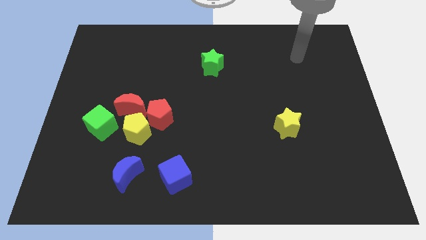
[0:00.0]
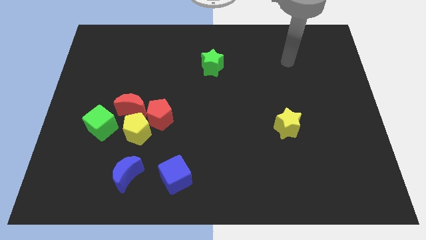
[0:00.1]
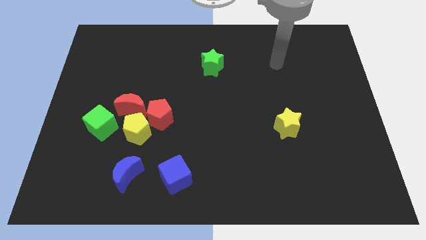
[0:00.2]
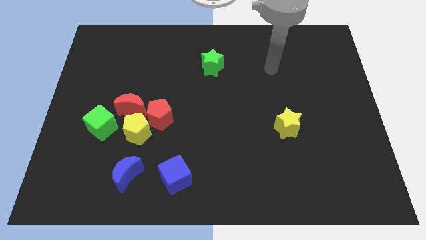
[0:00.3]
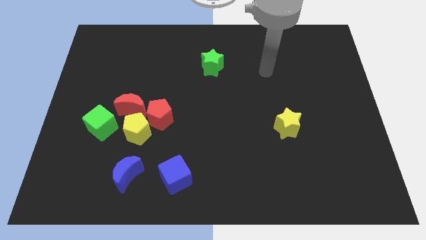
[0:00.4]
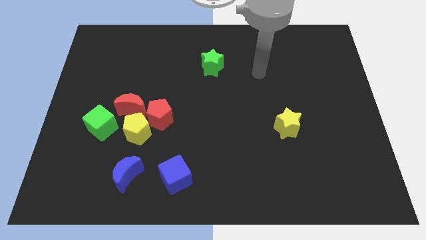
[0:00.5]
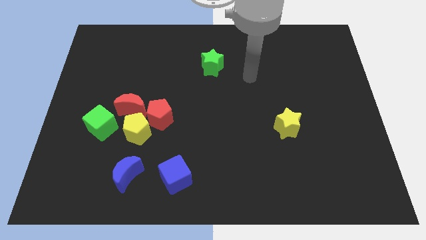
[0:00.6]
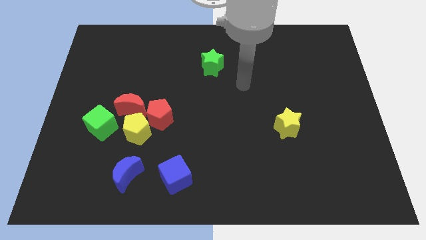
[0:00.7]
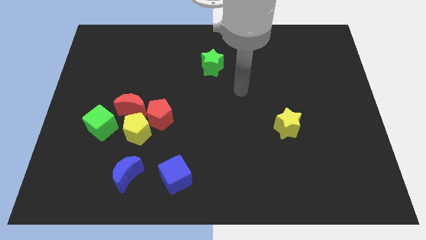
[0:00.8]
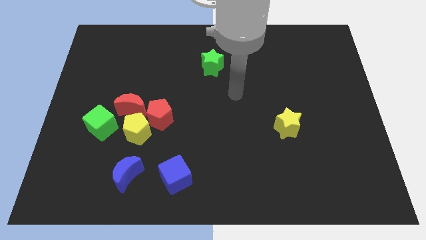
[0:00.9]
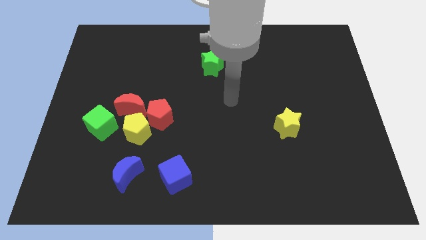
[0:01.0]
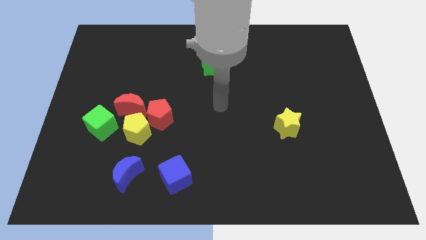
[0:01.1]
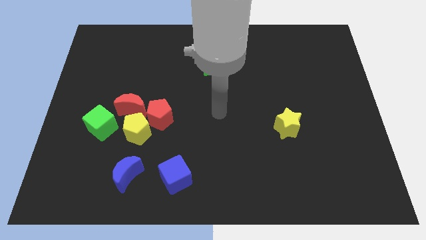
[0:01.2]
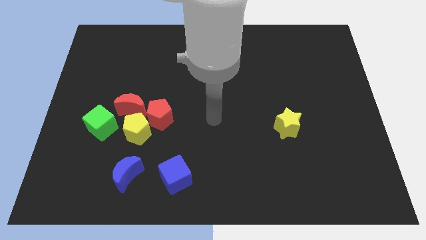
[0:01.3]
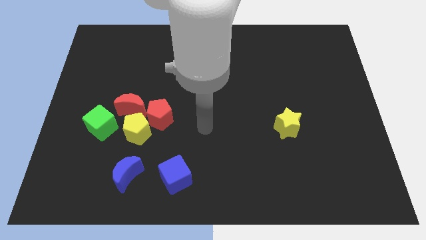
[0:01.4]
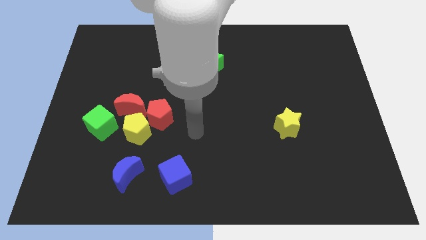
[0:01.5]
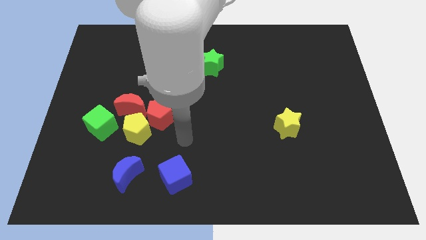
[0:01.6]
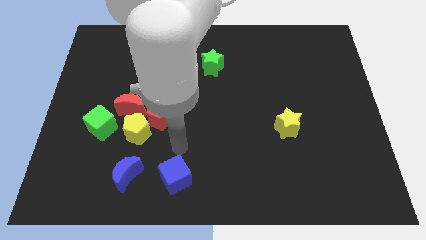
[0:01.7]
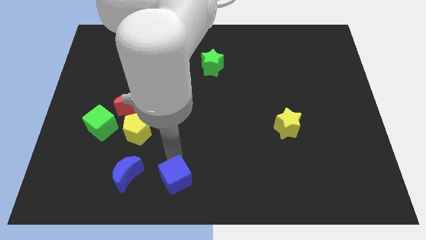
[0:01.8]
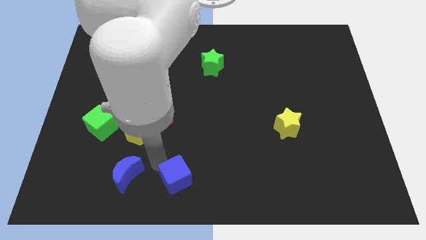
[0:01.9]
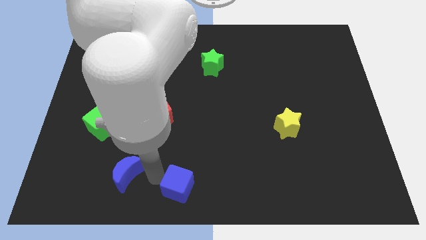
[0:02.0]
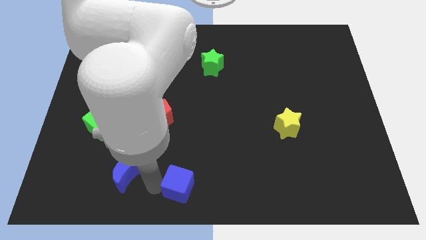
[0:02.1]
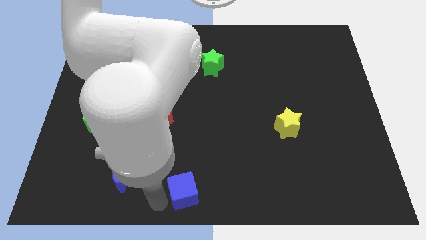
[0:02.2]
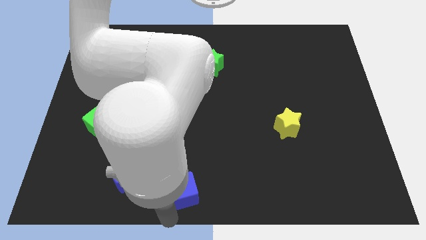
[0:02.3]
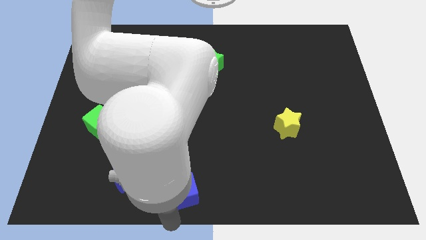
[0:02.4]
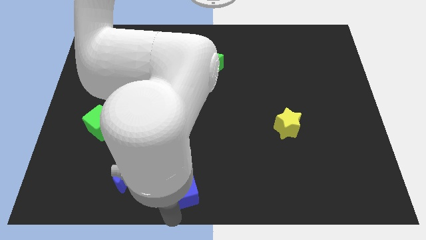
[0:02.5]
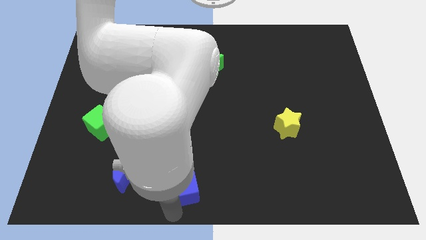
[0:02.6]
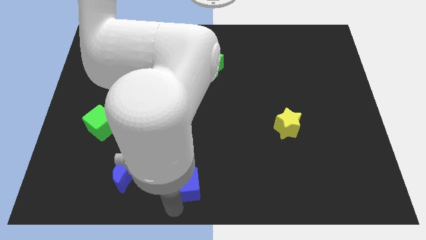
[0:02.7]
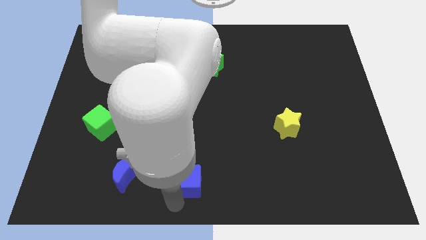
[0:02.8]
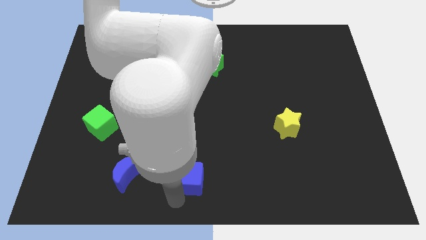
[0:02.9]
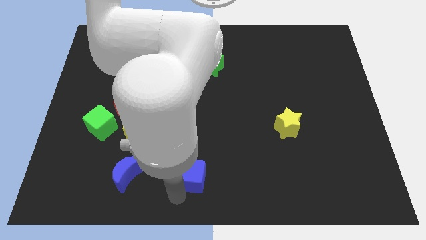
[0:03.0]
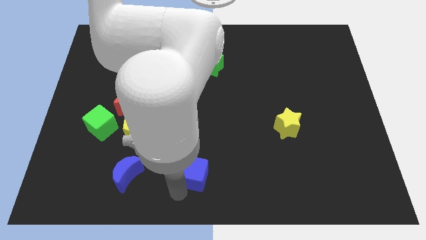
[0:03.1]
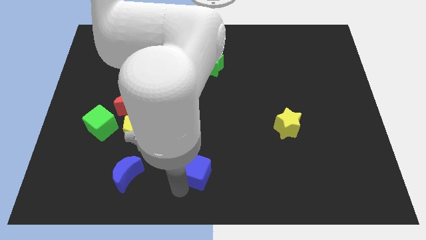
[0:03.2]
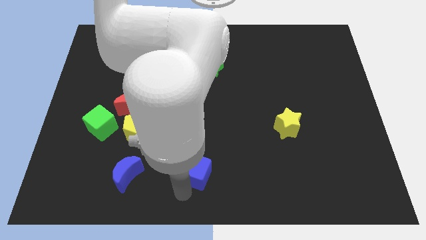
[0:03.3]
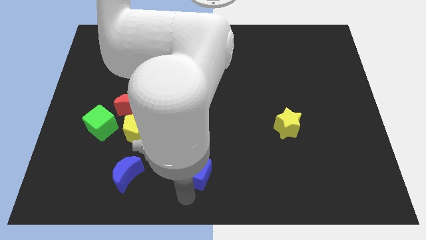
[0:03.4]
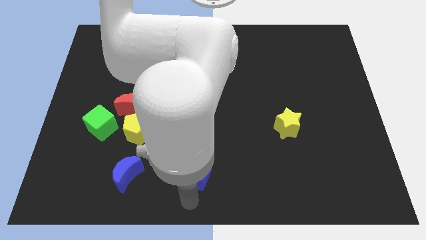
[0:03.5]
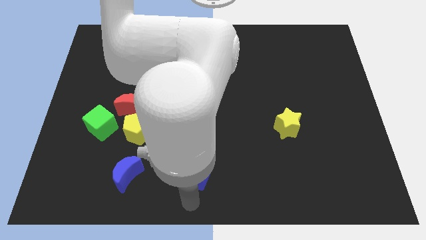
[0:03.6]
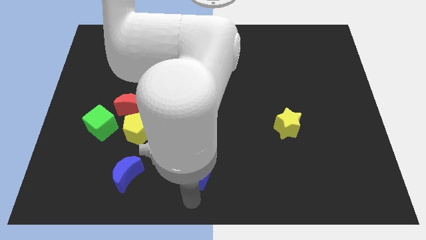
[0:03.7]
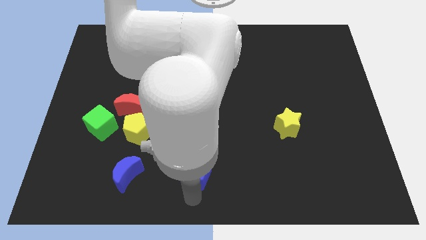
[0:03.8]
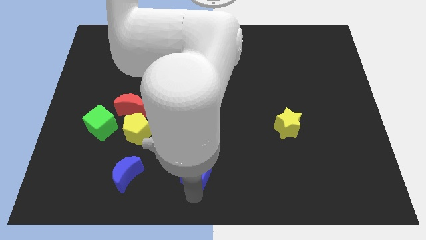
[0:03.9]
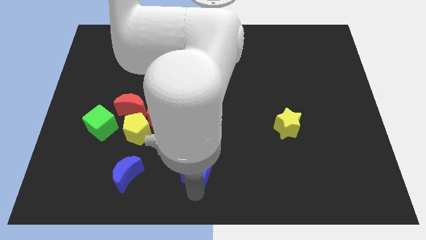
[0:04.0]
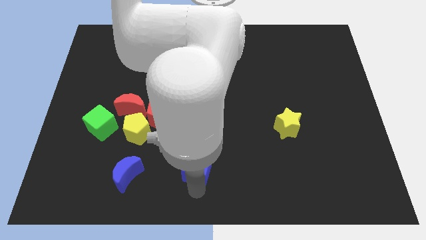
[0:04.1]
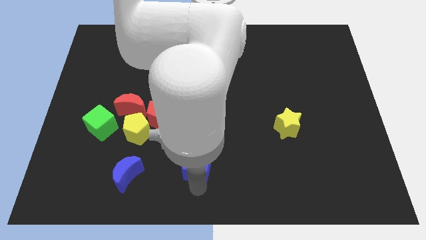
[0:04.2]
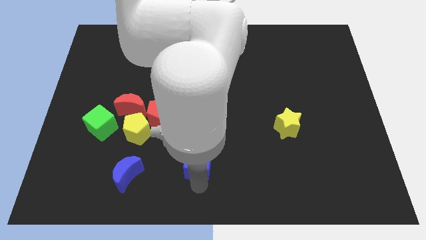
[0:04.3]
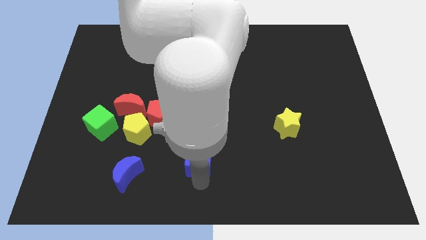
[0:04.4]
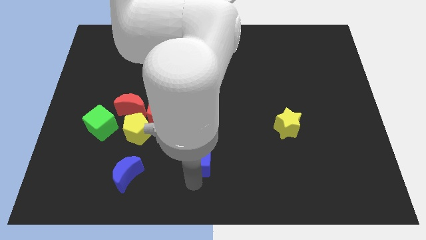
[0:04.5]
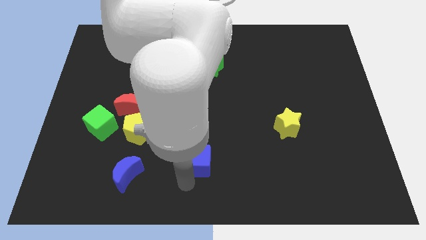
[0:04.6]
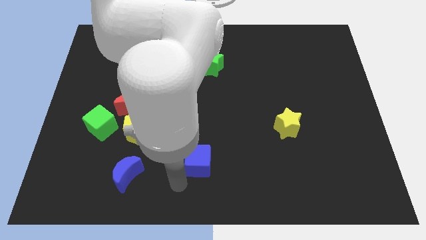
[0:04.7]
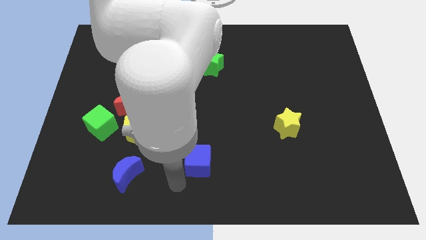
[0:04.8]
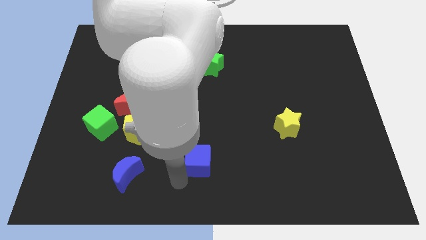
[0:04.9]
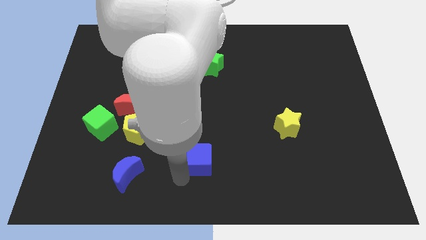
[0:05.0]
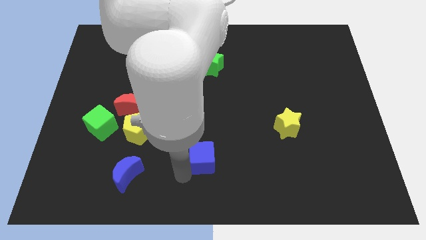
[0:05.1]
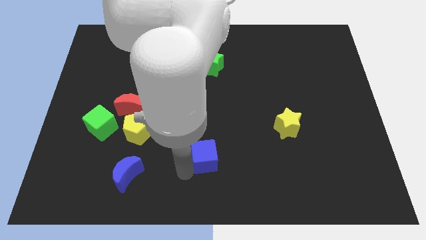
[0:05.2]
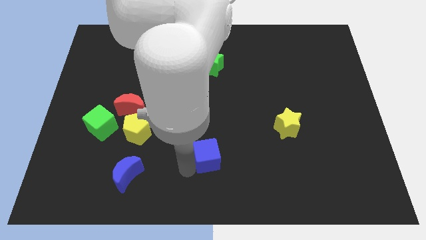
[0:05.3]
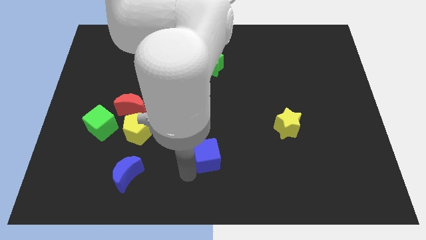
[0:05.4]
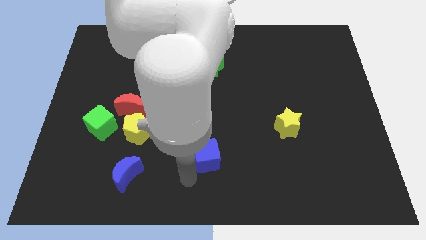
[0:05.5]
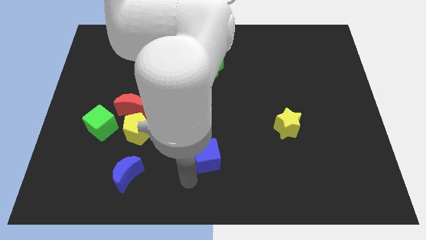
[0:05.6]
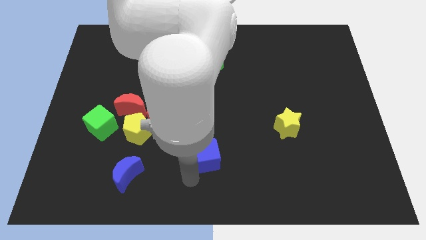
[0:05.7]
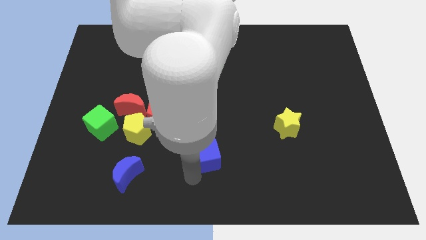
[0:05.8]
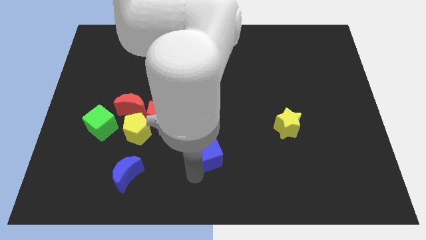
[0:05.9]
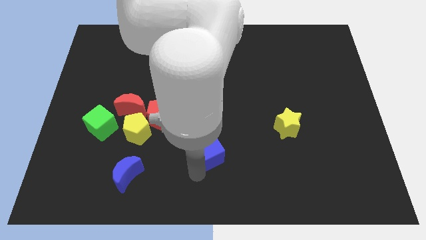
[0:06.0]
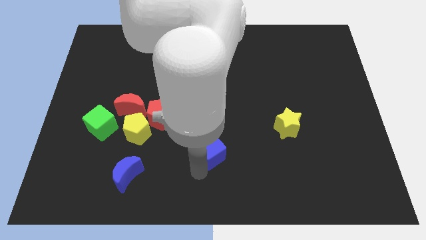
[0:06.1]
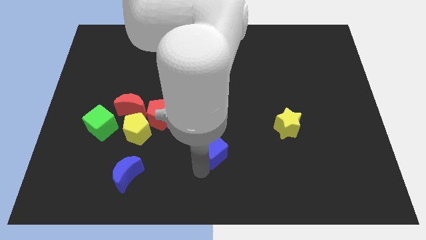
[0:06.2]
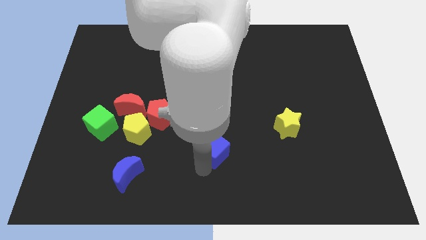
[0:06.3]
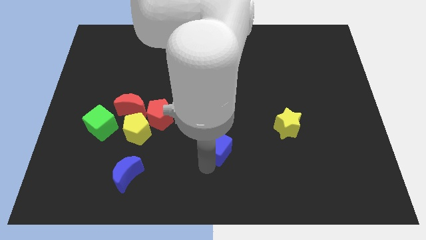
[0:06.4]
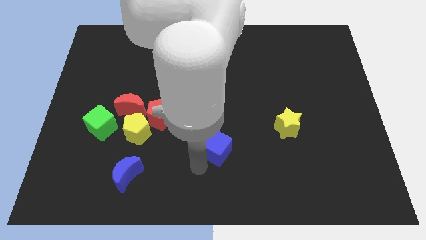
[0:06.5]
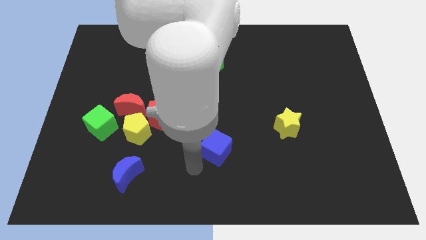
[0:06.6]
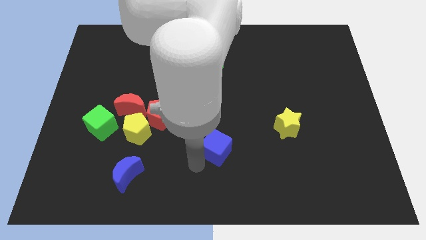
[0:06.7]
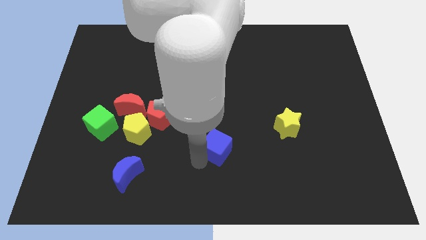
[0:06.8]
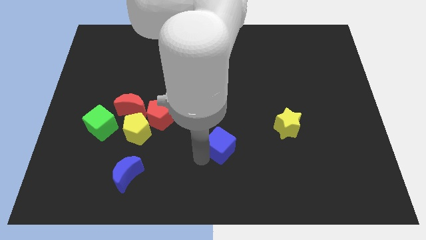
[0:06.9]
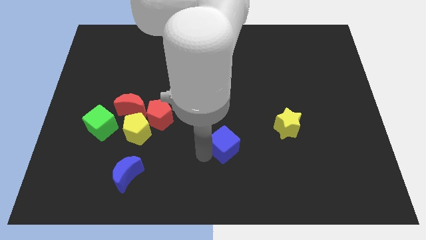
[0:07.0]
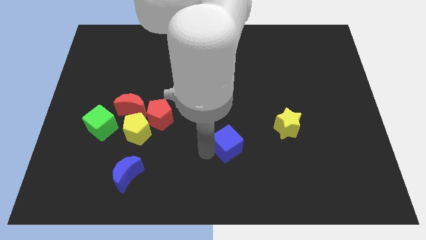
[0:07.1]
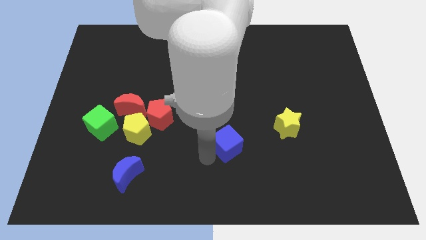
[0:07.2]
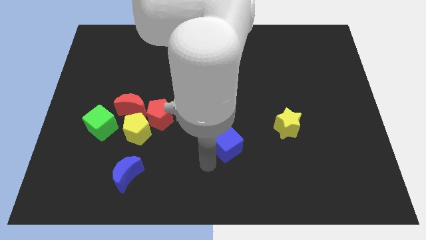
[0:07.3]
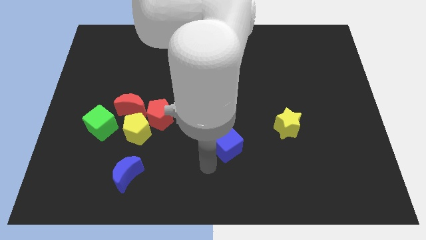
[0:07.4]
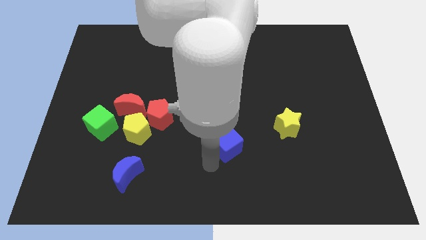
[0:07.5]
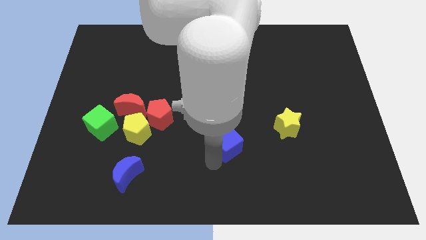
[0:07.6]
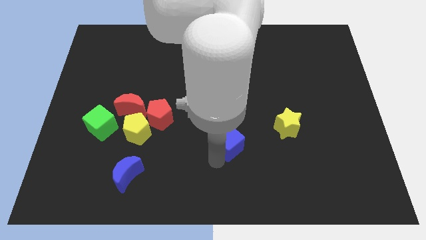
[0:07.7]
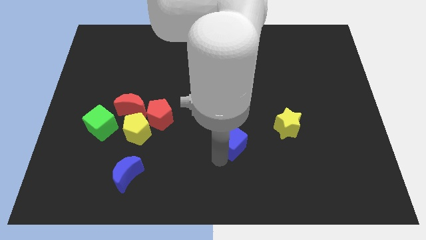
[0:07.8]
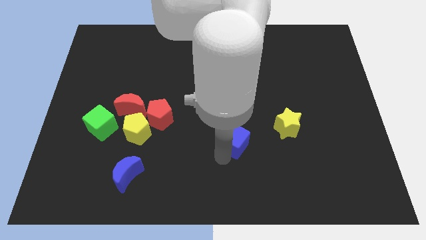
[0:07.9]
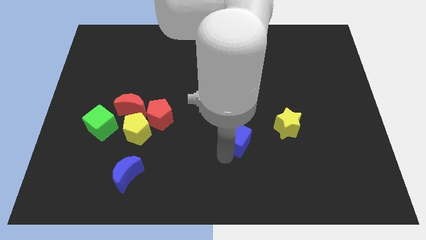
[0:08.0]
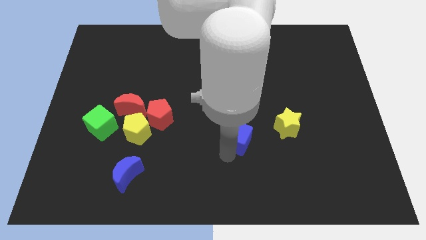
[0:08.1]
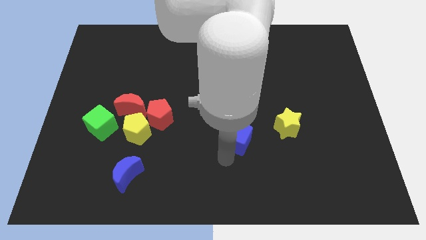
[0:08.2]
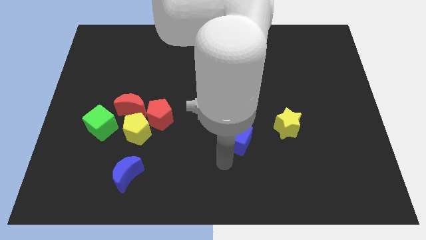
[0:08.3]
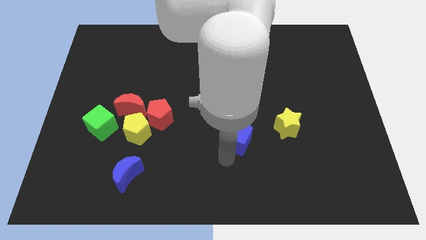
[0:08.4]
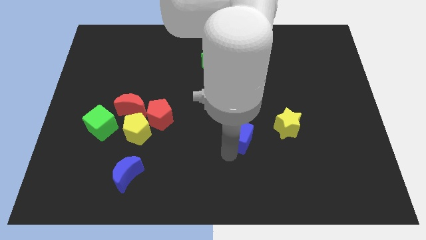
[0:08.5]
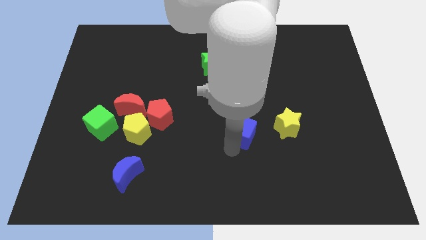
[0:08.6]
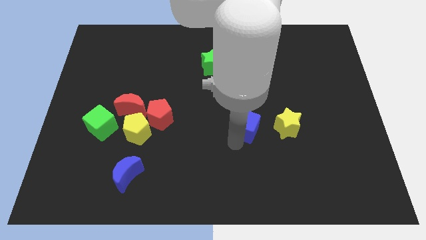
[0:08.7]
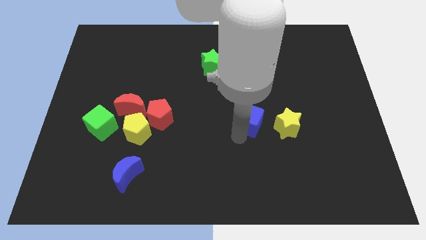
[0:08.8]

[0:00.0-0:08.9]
slide the blue cube upwards and then right
